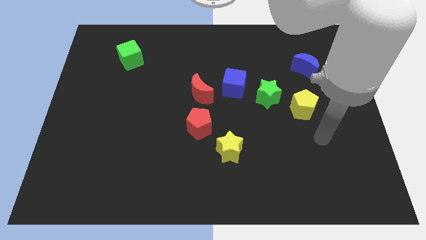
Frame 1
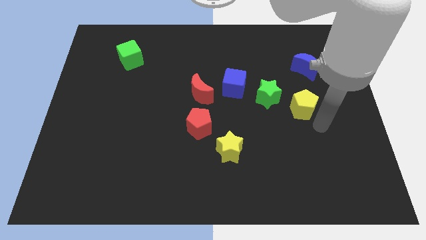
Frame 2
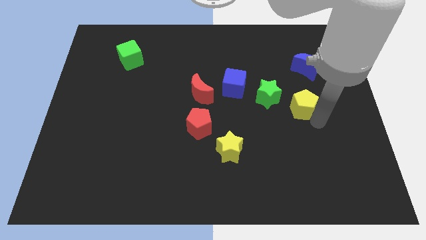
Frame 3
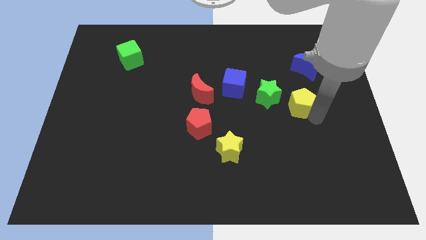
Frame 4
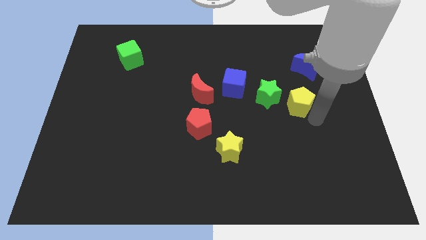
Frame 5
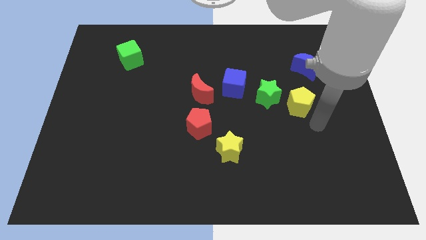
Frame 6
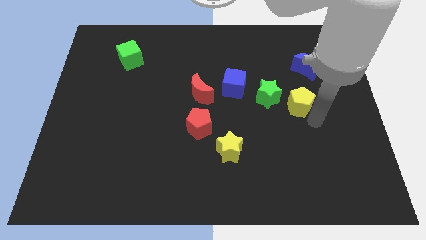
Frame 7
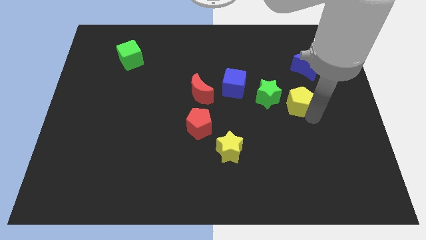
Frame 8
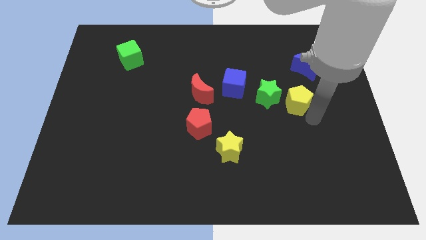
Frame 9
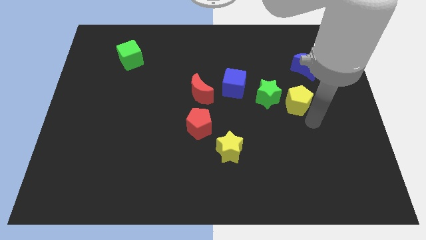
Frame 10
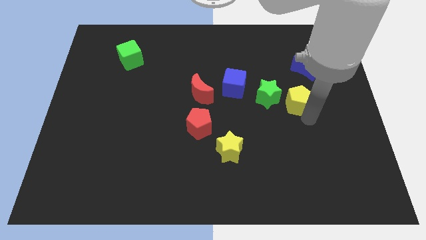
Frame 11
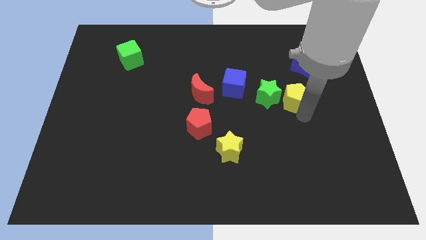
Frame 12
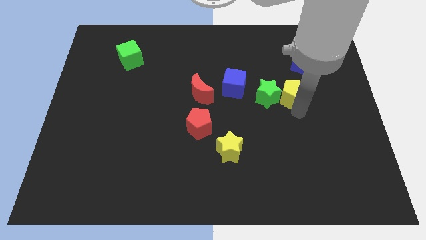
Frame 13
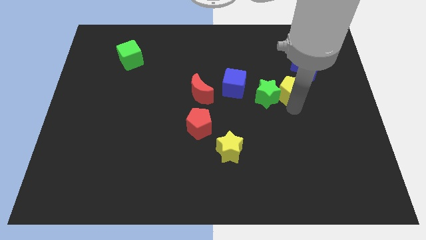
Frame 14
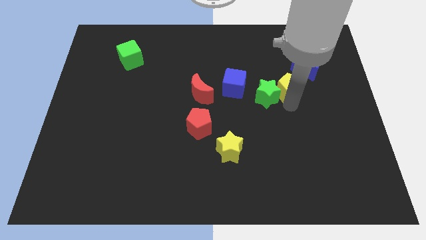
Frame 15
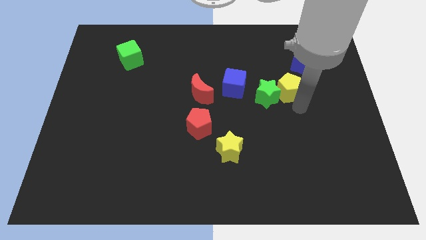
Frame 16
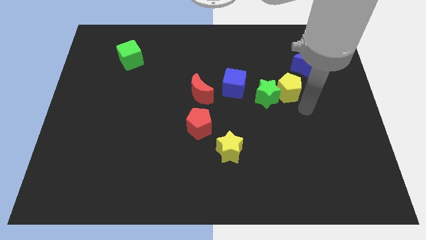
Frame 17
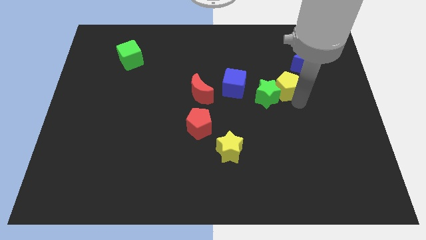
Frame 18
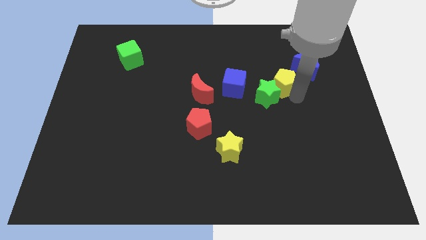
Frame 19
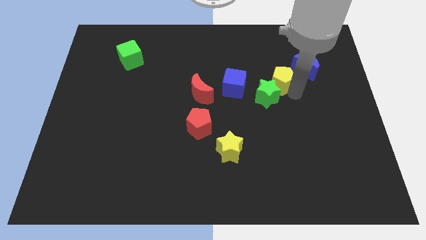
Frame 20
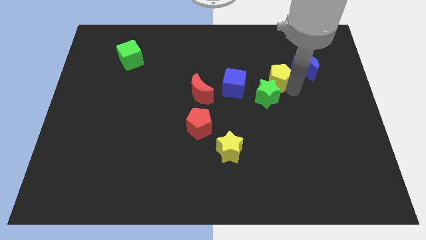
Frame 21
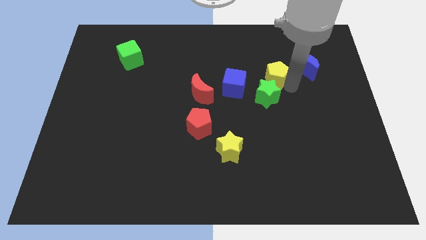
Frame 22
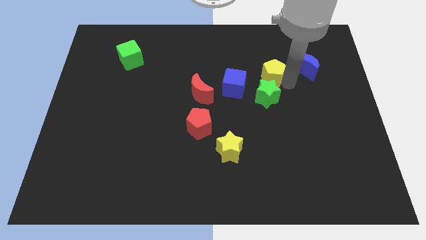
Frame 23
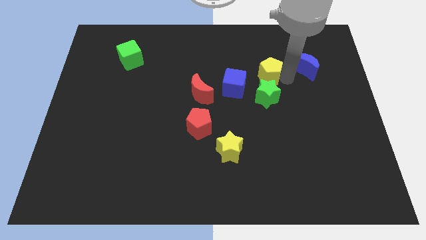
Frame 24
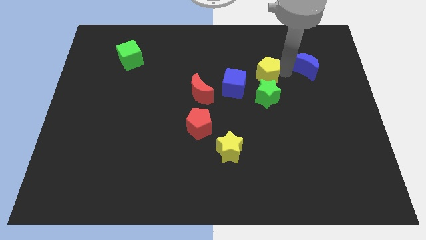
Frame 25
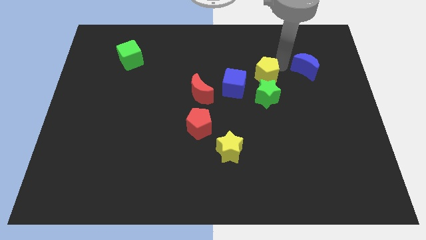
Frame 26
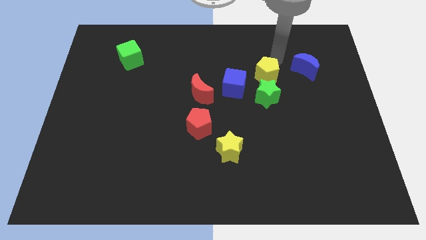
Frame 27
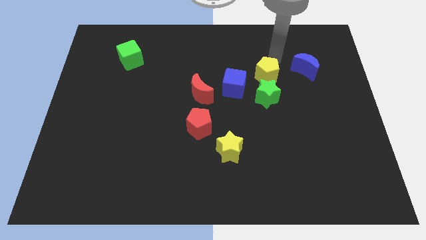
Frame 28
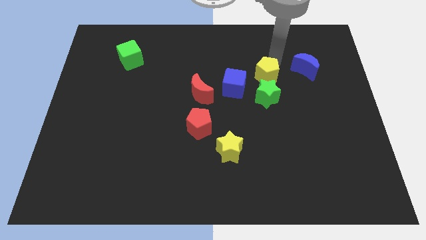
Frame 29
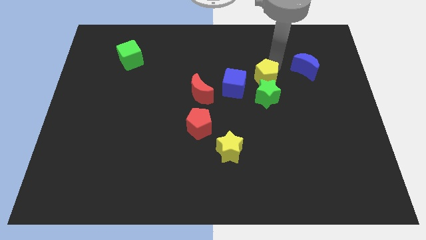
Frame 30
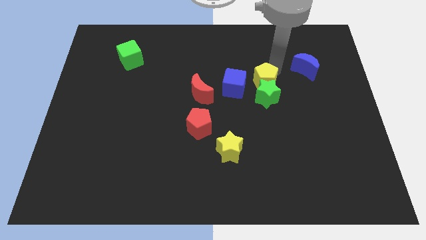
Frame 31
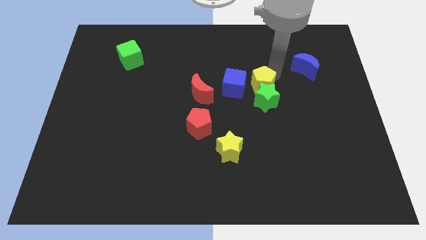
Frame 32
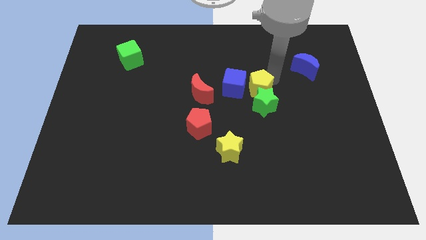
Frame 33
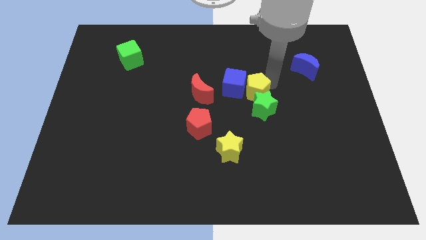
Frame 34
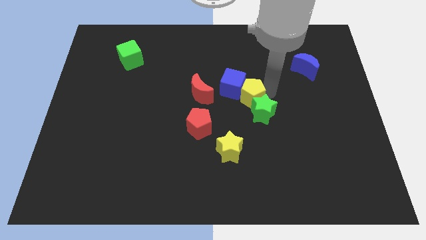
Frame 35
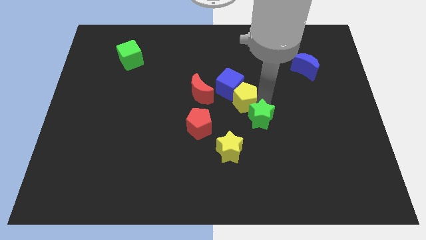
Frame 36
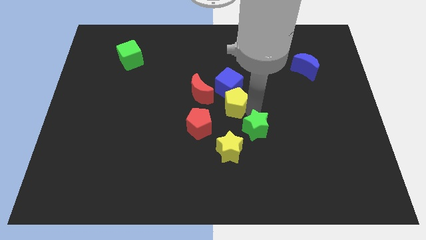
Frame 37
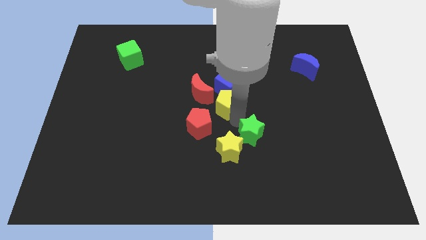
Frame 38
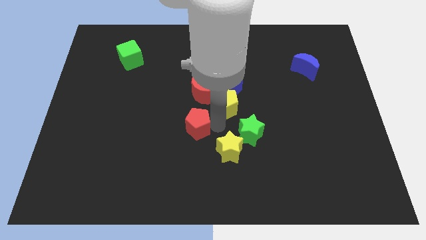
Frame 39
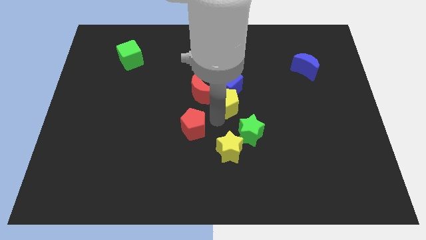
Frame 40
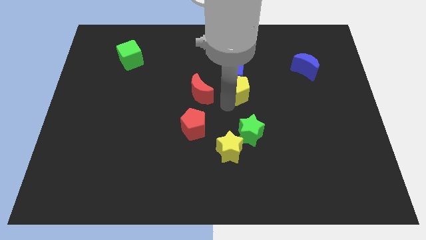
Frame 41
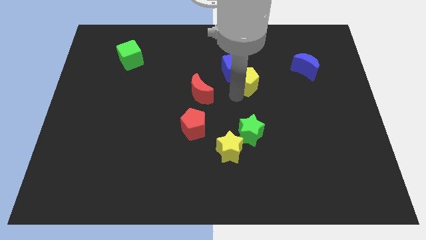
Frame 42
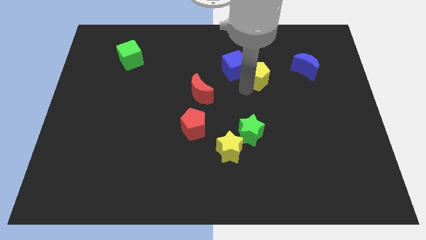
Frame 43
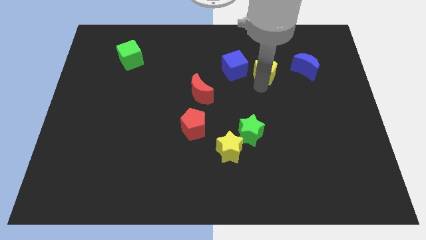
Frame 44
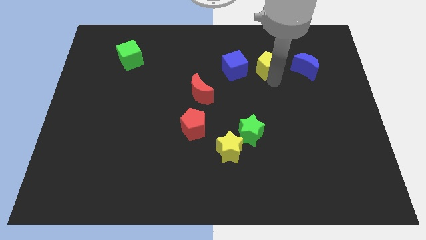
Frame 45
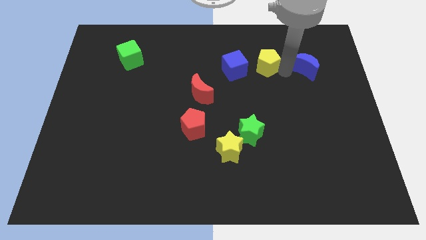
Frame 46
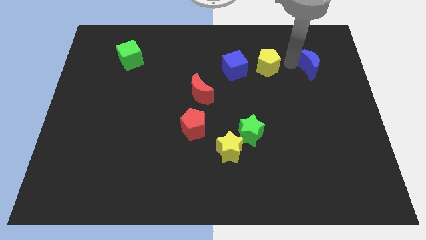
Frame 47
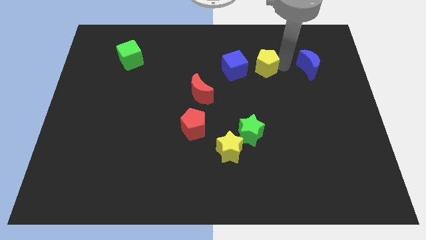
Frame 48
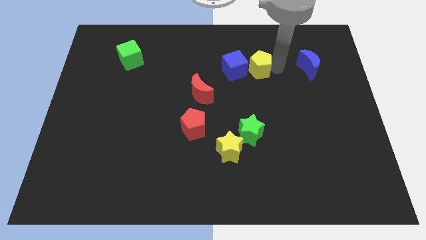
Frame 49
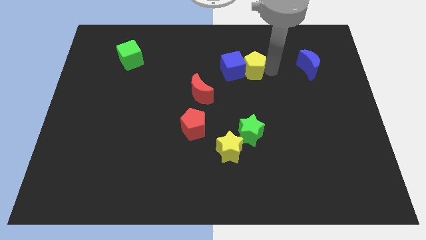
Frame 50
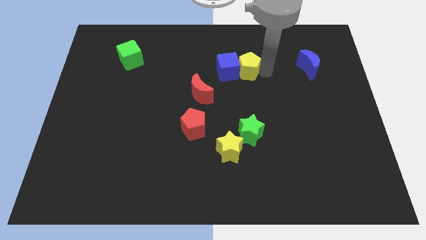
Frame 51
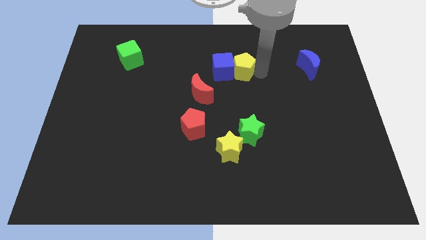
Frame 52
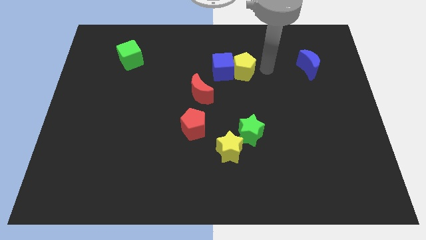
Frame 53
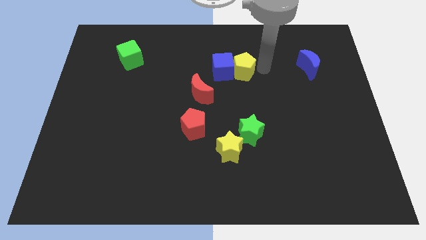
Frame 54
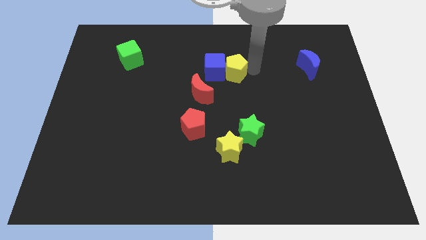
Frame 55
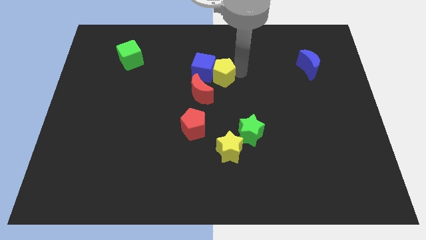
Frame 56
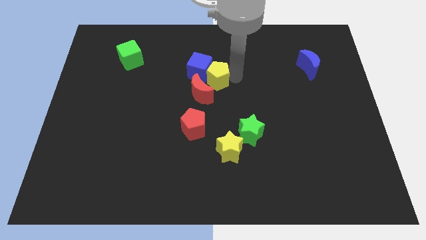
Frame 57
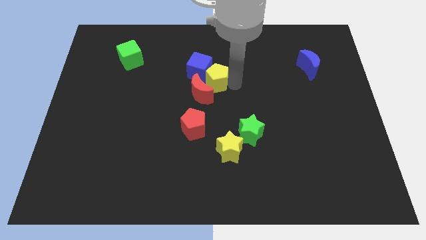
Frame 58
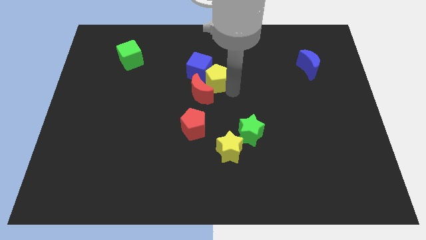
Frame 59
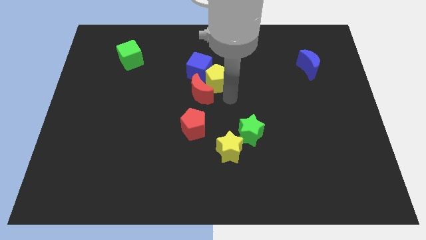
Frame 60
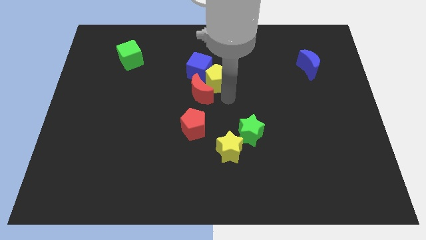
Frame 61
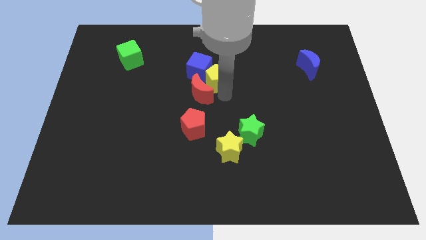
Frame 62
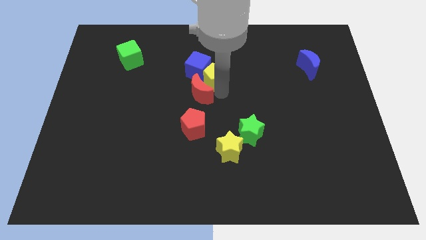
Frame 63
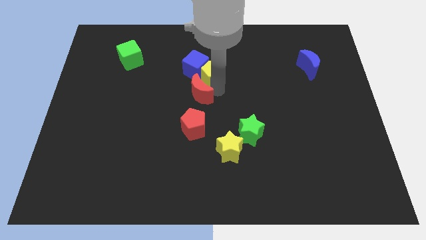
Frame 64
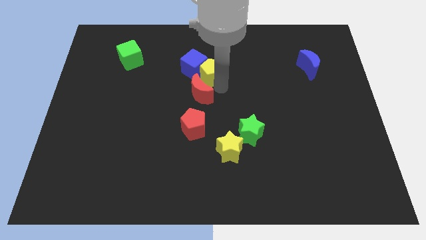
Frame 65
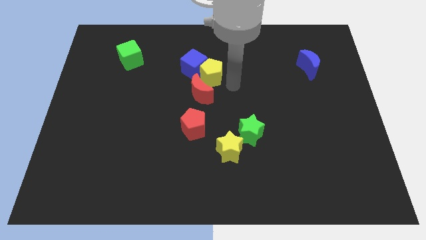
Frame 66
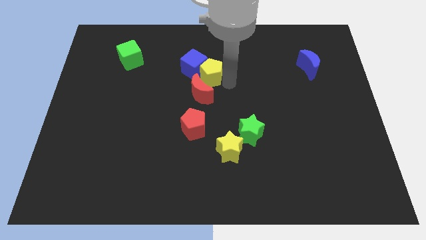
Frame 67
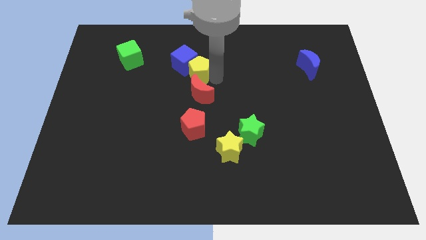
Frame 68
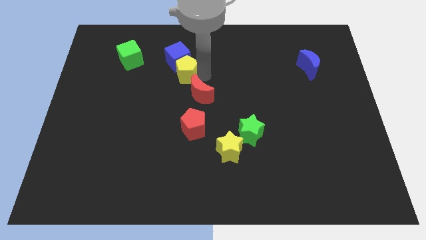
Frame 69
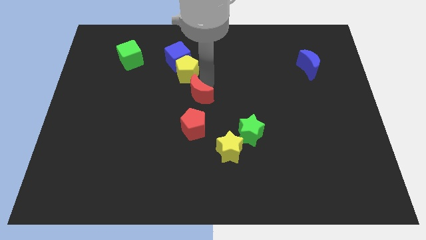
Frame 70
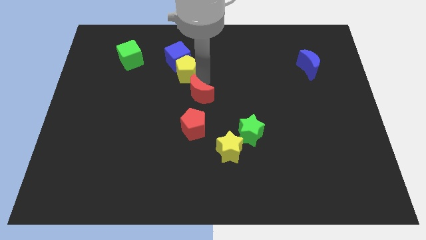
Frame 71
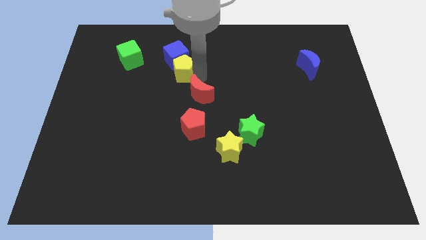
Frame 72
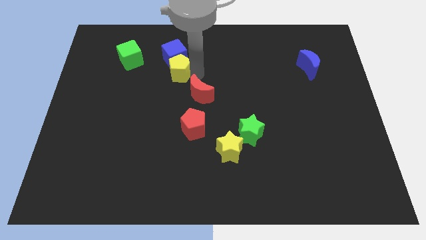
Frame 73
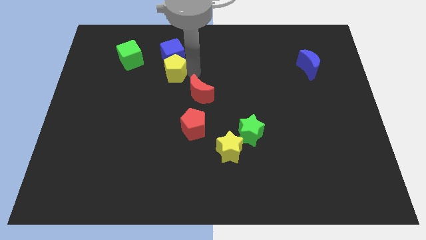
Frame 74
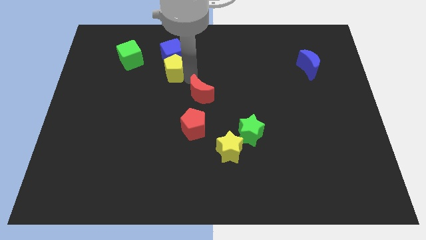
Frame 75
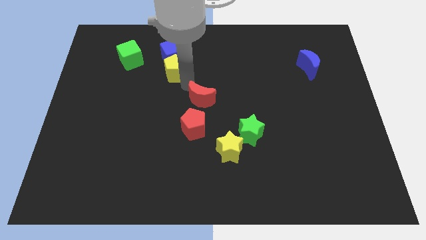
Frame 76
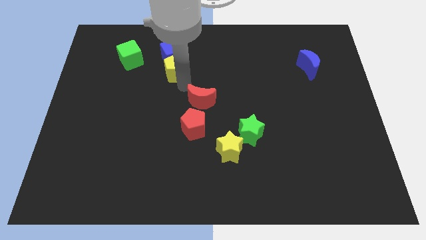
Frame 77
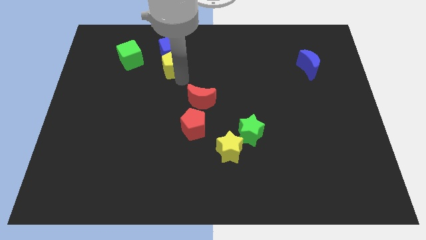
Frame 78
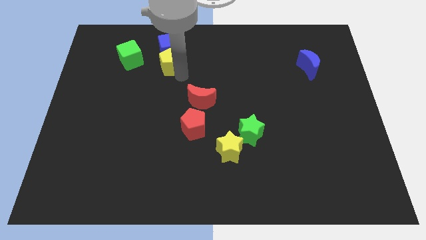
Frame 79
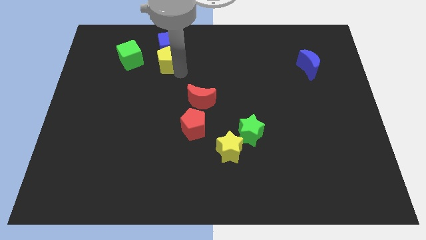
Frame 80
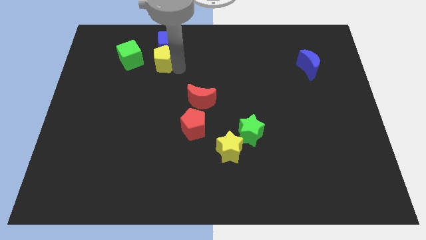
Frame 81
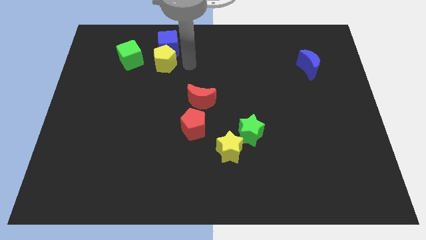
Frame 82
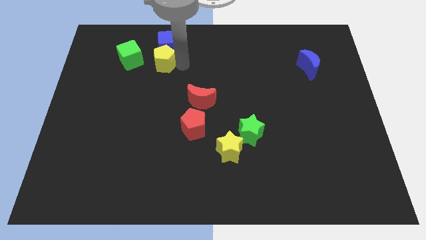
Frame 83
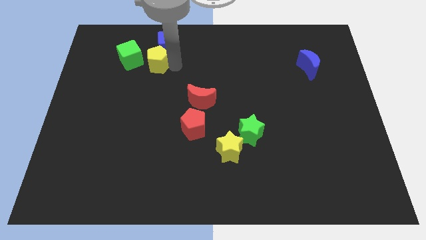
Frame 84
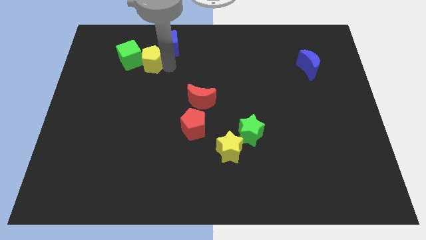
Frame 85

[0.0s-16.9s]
put the yellow pentagon next to the green cube
